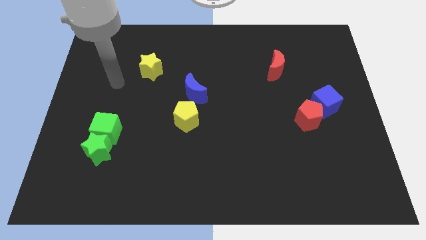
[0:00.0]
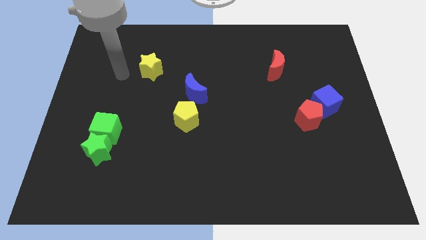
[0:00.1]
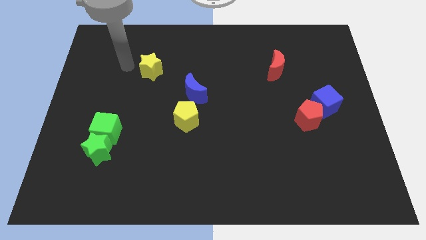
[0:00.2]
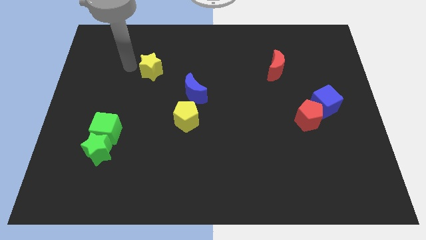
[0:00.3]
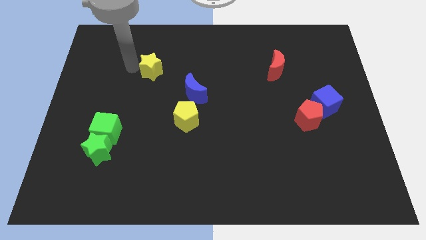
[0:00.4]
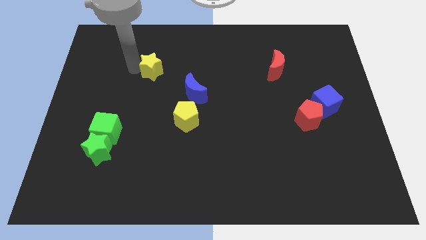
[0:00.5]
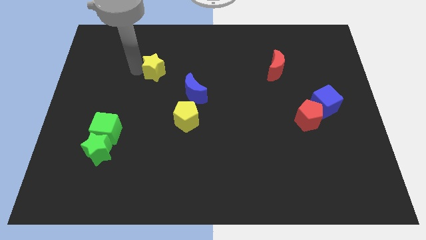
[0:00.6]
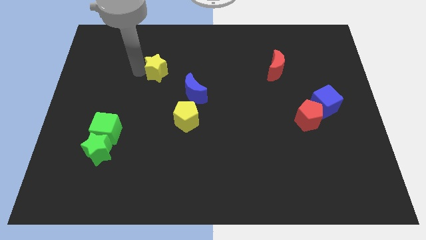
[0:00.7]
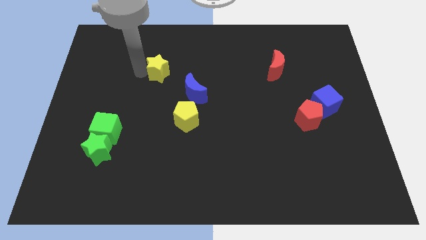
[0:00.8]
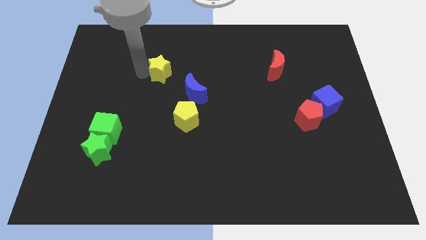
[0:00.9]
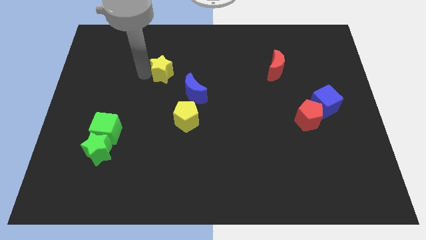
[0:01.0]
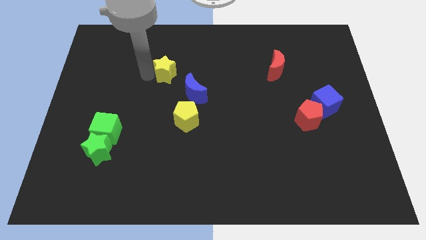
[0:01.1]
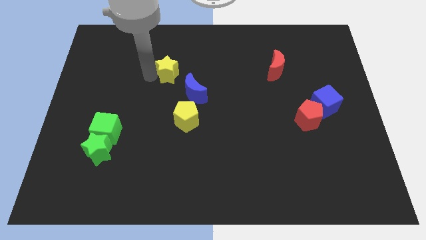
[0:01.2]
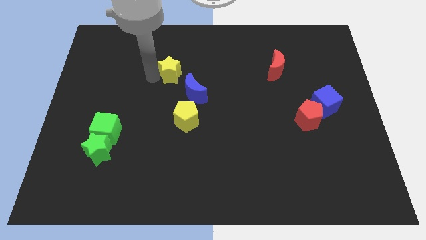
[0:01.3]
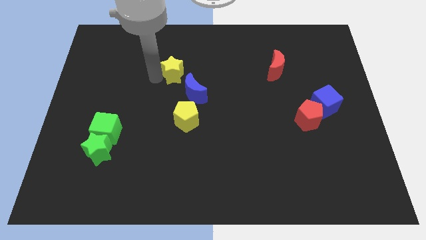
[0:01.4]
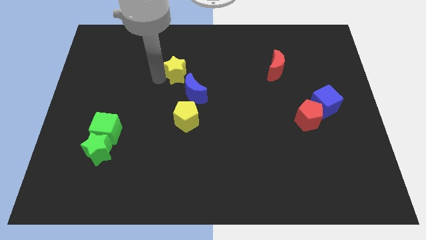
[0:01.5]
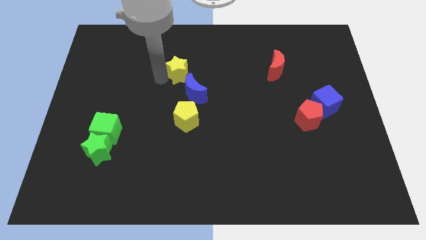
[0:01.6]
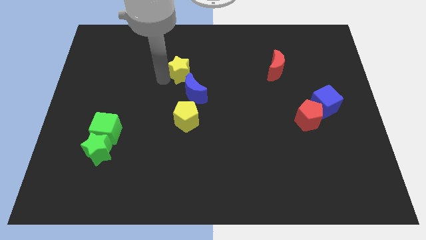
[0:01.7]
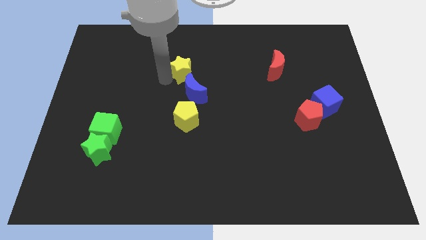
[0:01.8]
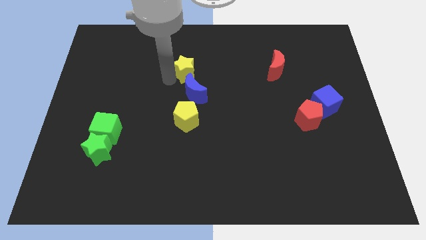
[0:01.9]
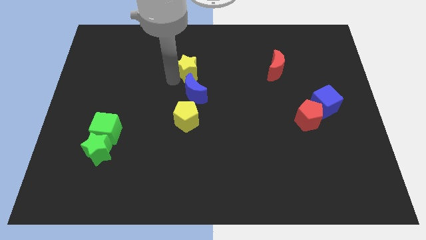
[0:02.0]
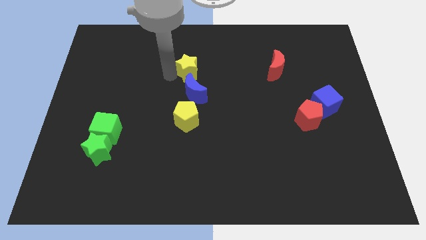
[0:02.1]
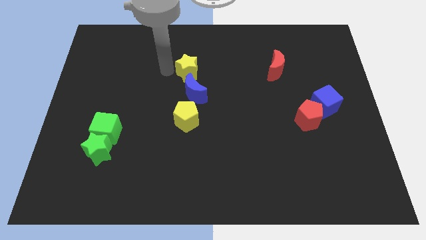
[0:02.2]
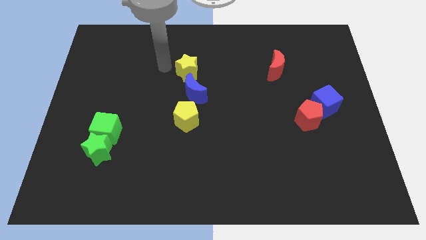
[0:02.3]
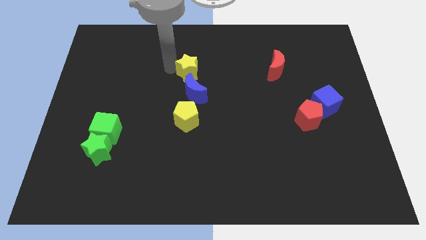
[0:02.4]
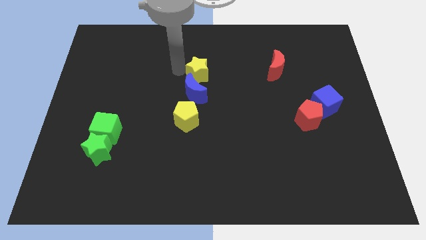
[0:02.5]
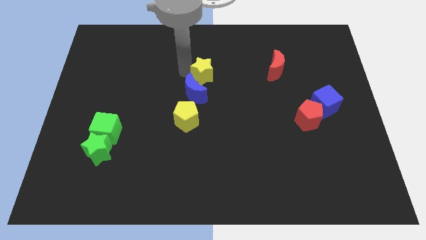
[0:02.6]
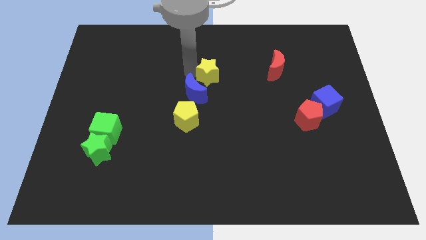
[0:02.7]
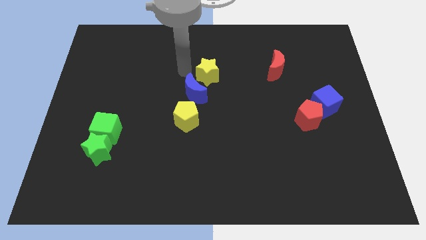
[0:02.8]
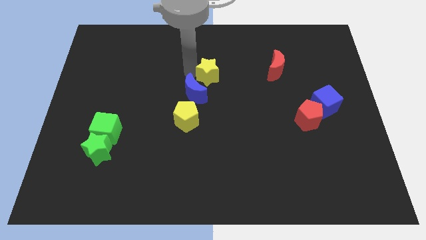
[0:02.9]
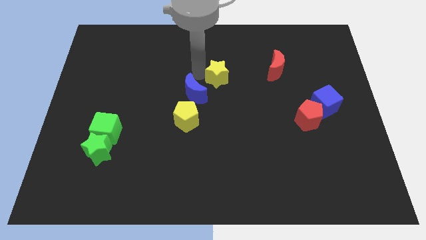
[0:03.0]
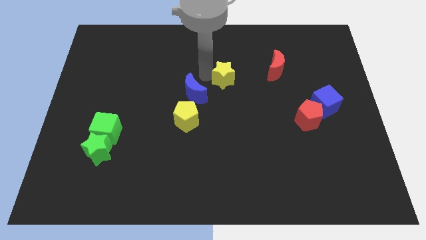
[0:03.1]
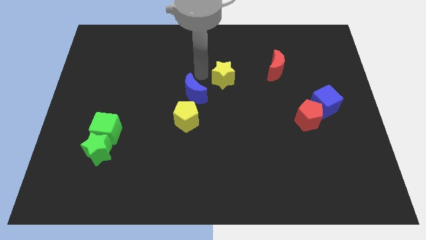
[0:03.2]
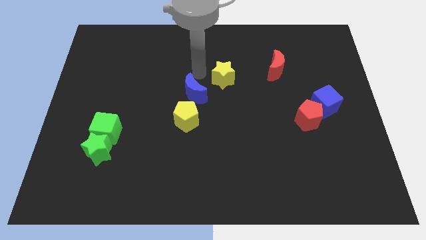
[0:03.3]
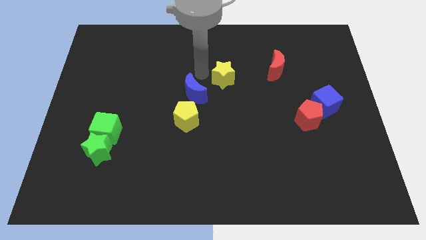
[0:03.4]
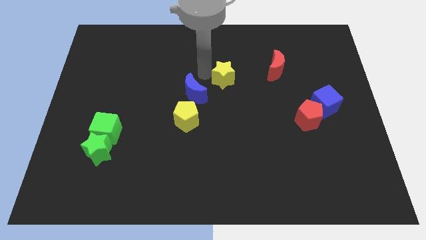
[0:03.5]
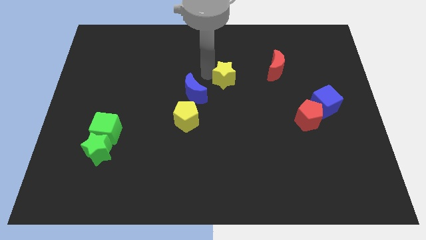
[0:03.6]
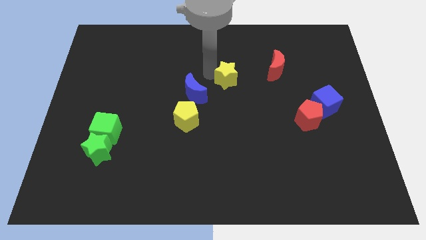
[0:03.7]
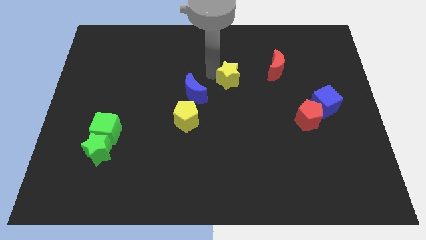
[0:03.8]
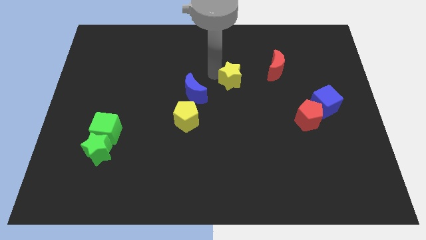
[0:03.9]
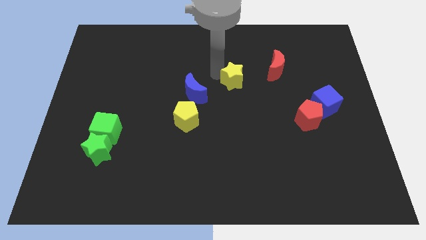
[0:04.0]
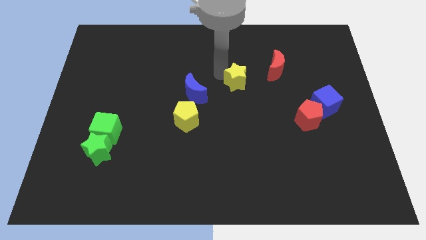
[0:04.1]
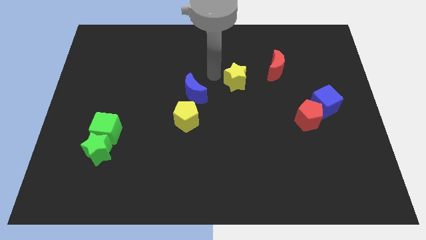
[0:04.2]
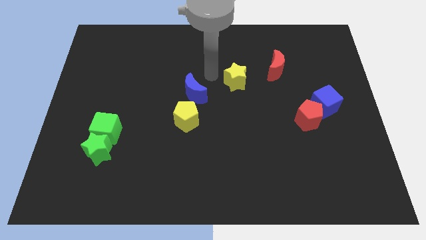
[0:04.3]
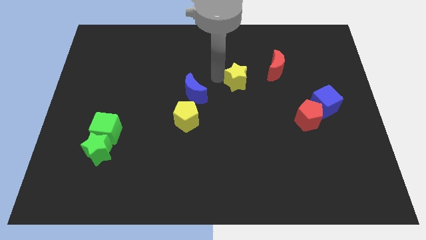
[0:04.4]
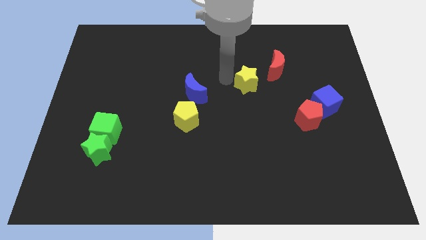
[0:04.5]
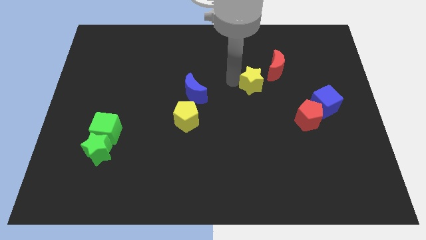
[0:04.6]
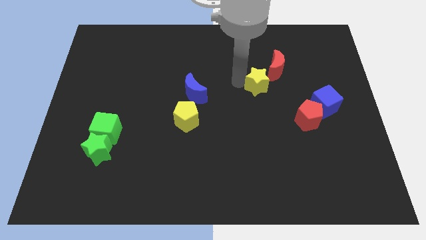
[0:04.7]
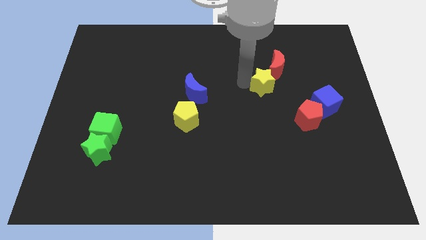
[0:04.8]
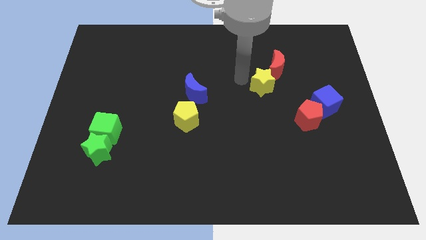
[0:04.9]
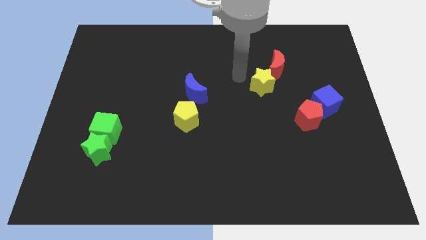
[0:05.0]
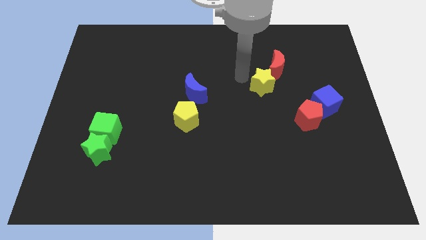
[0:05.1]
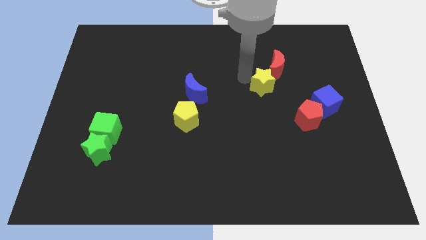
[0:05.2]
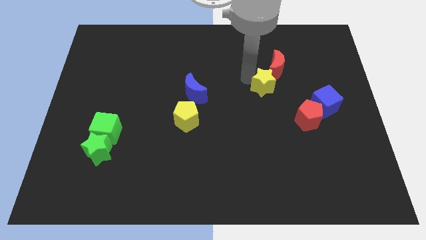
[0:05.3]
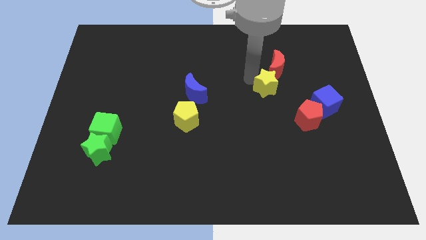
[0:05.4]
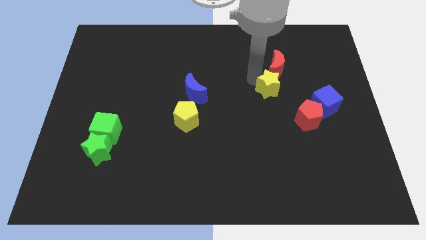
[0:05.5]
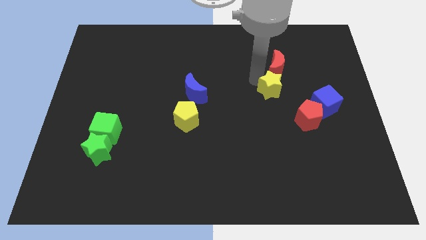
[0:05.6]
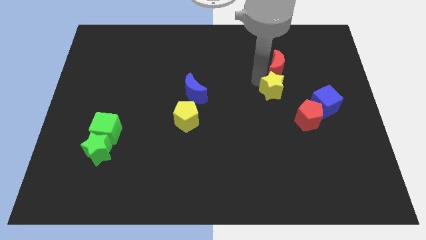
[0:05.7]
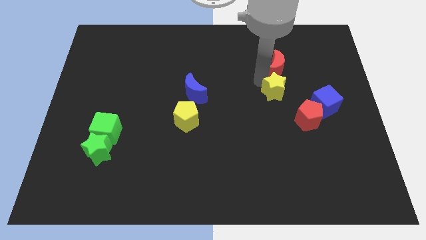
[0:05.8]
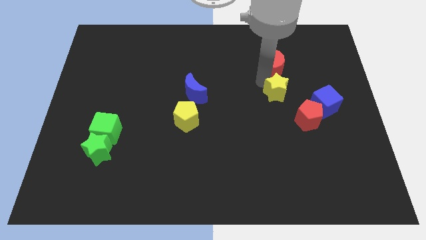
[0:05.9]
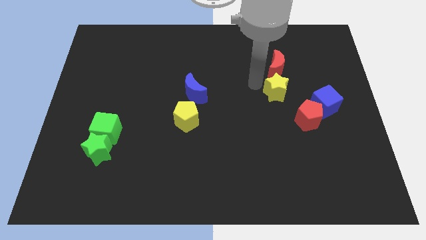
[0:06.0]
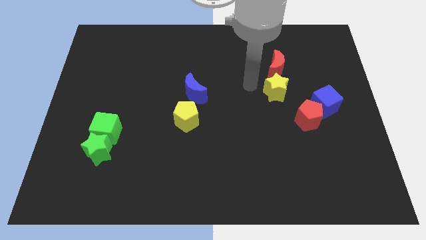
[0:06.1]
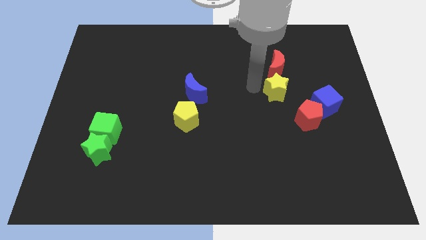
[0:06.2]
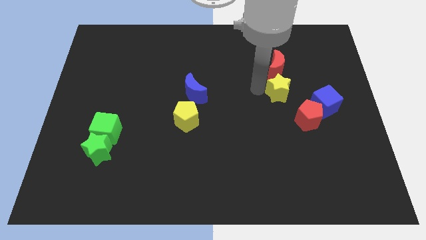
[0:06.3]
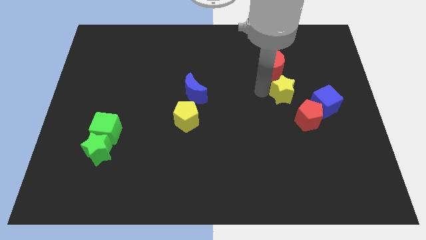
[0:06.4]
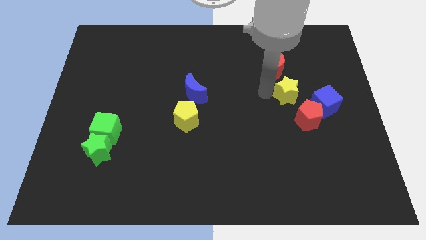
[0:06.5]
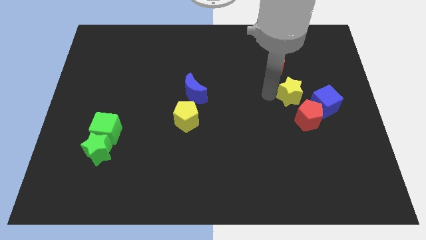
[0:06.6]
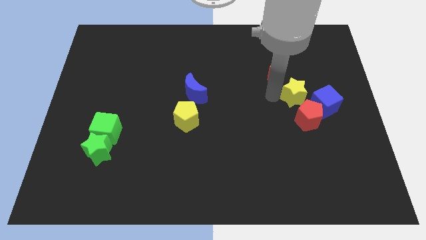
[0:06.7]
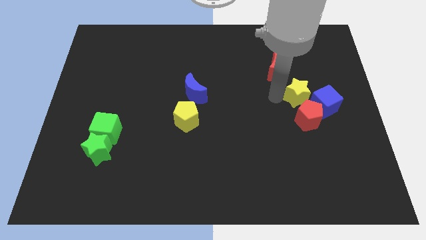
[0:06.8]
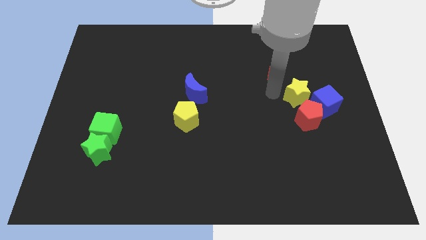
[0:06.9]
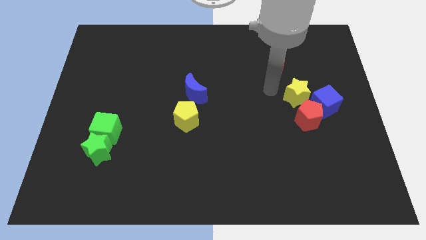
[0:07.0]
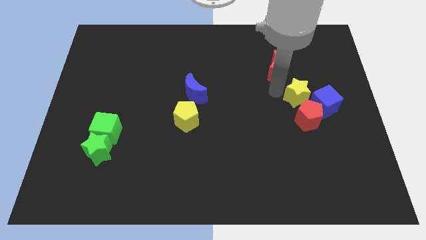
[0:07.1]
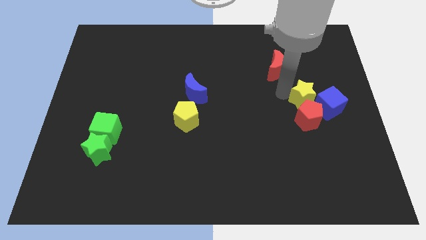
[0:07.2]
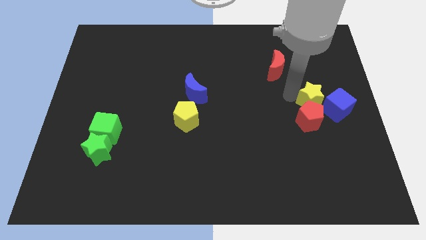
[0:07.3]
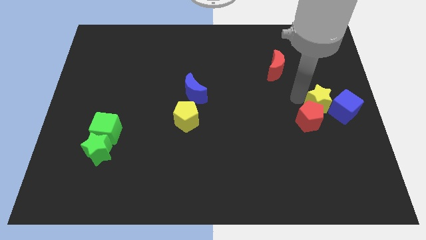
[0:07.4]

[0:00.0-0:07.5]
push the yellow star close to the blue cube

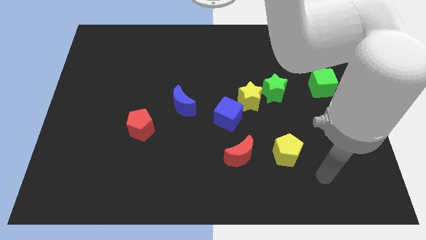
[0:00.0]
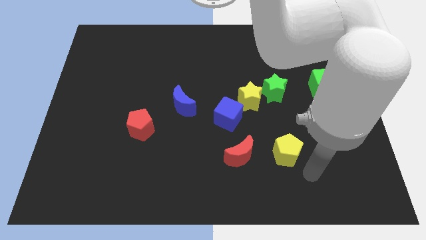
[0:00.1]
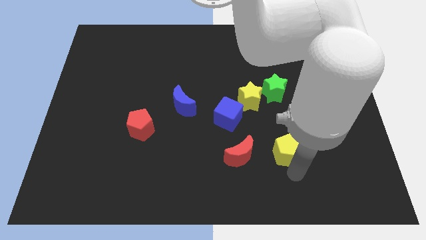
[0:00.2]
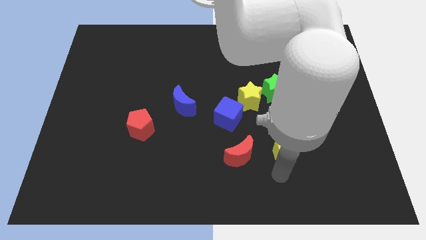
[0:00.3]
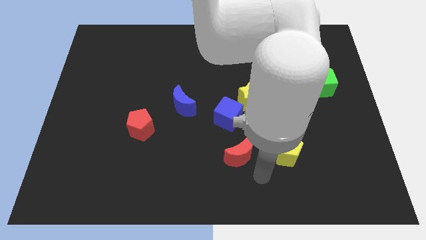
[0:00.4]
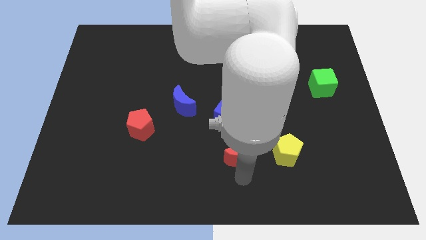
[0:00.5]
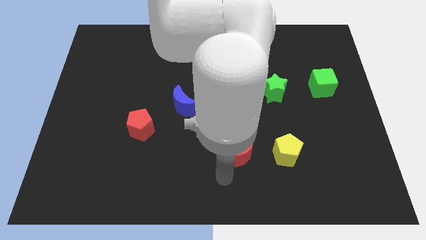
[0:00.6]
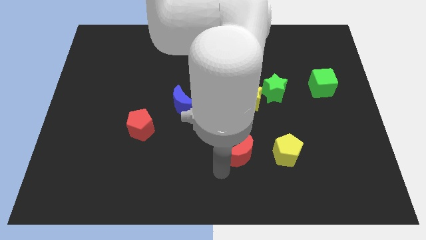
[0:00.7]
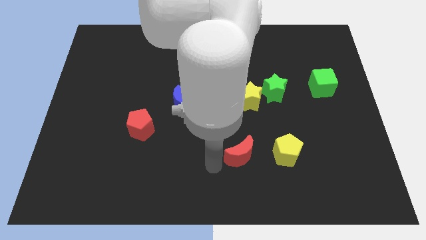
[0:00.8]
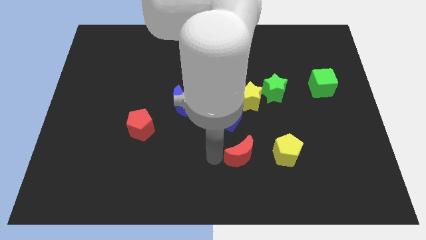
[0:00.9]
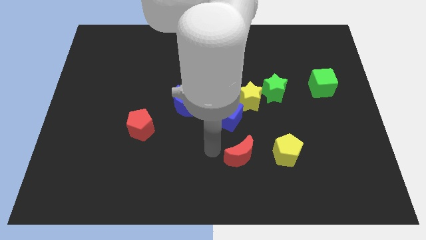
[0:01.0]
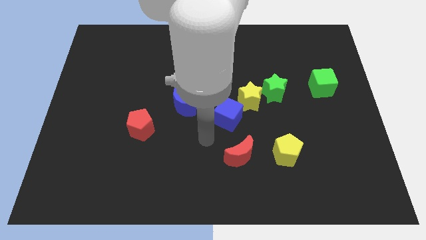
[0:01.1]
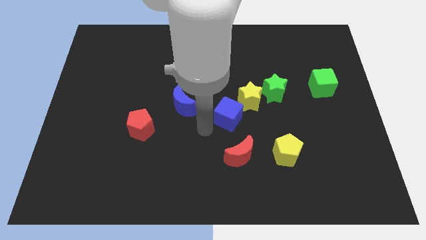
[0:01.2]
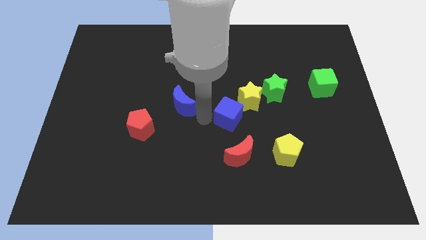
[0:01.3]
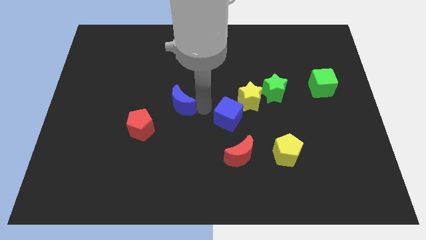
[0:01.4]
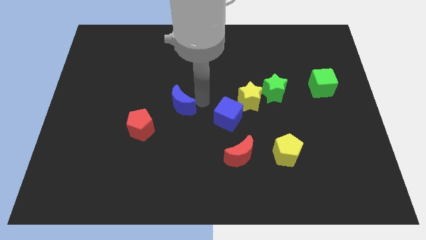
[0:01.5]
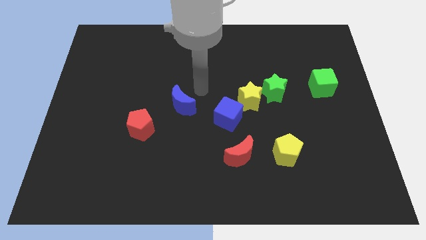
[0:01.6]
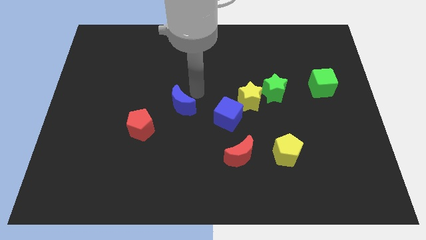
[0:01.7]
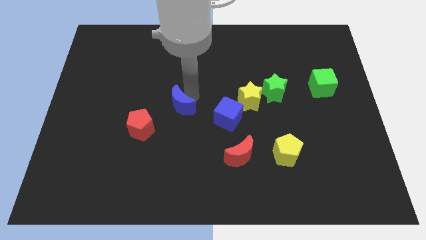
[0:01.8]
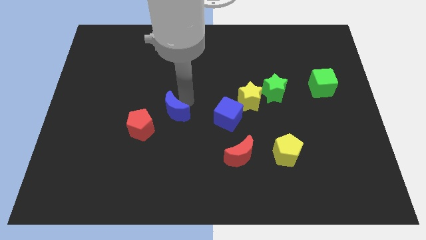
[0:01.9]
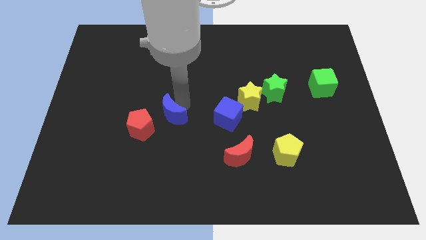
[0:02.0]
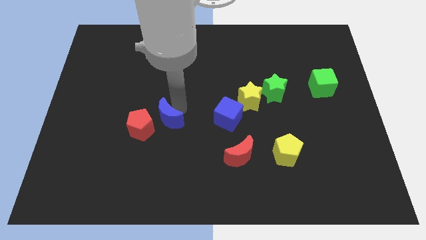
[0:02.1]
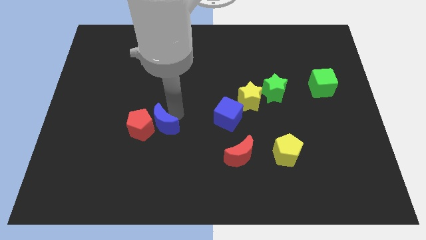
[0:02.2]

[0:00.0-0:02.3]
move the blue moon next to the red pentagon
